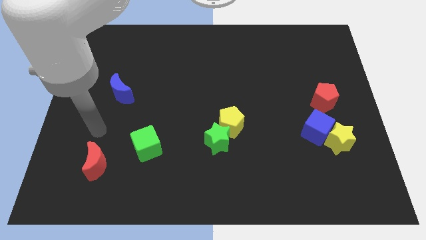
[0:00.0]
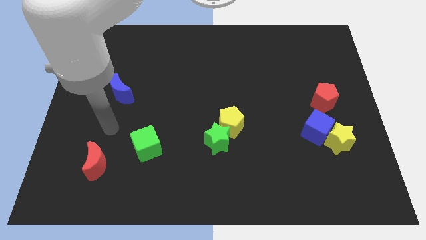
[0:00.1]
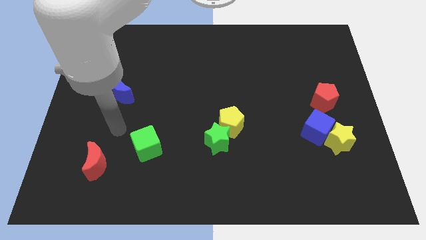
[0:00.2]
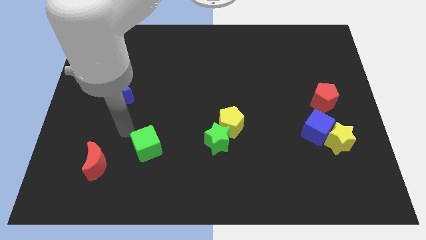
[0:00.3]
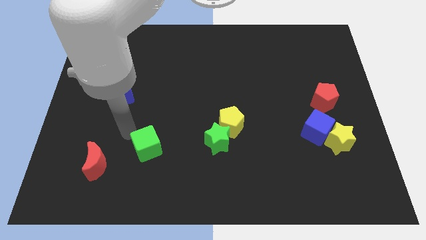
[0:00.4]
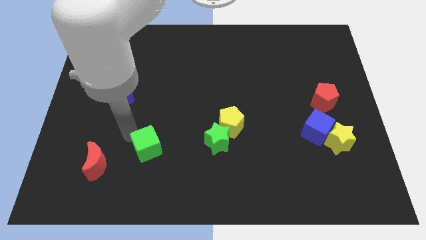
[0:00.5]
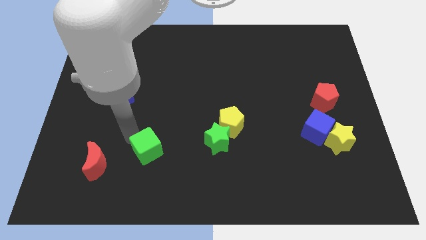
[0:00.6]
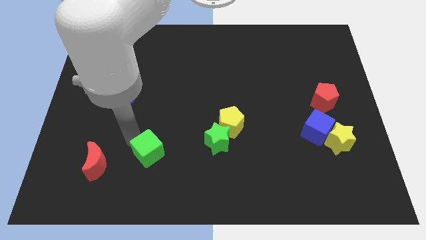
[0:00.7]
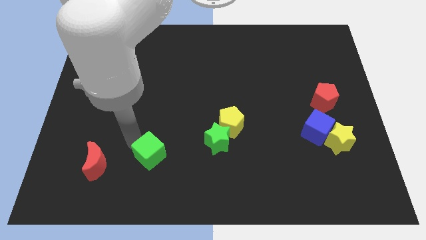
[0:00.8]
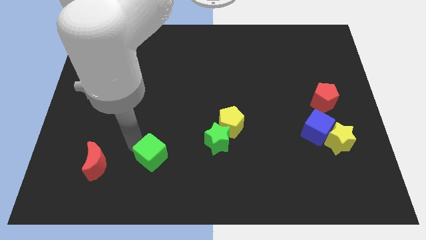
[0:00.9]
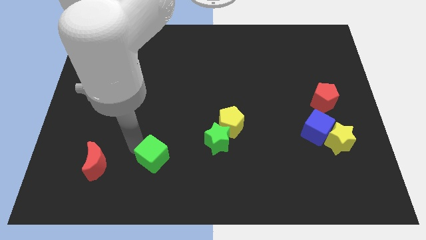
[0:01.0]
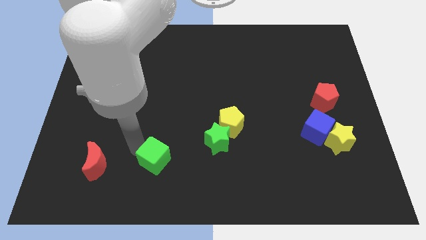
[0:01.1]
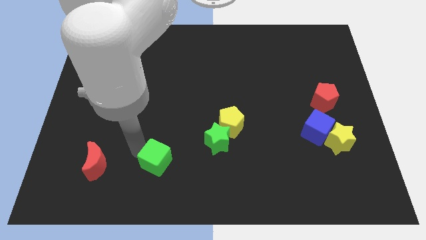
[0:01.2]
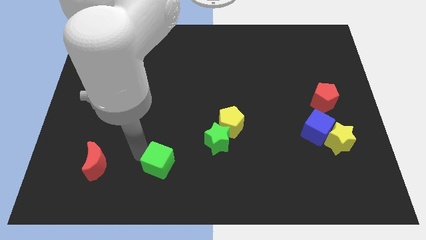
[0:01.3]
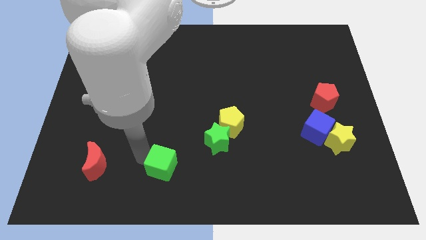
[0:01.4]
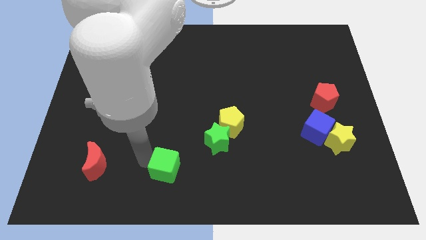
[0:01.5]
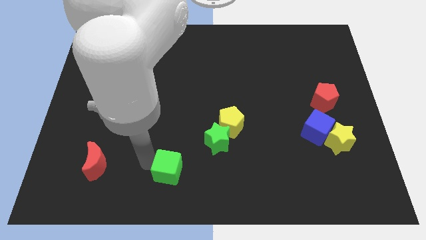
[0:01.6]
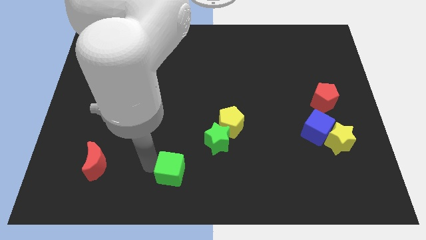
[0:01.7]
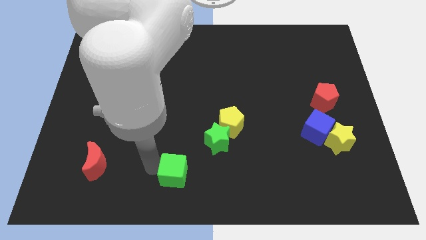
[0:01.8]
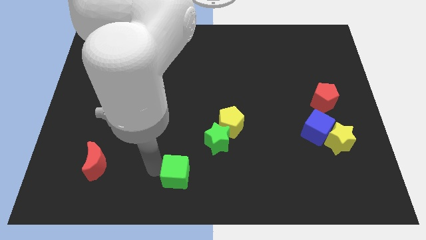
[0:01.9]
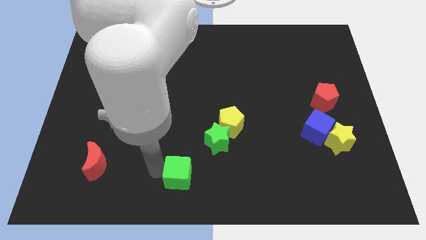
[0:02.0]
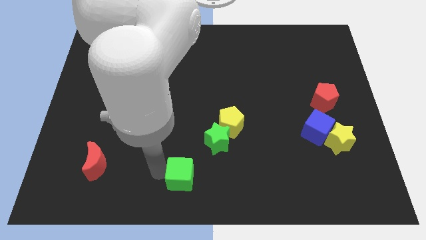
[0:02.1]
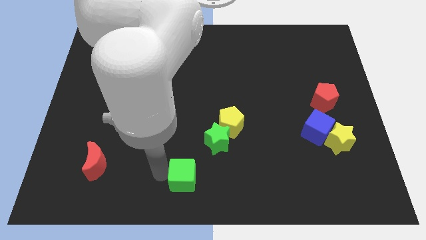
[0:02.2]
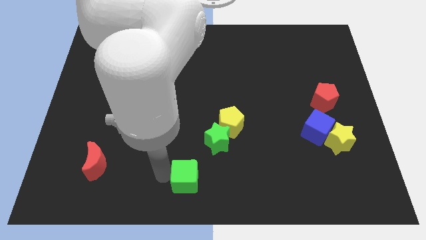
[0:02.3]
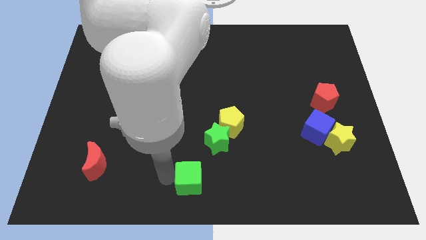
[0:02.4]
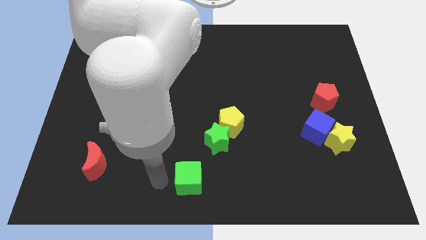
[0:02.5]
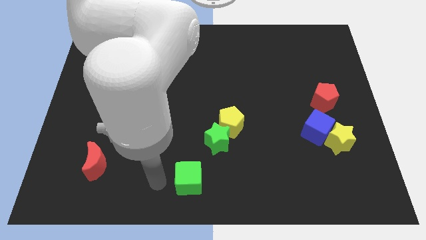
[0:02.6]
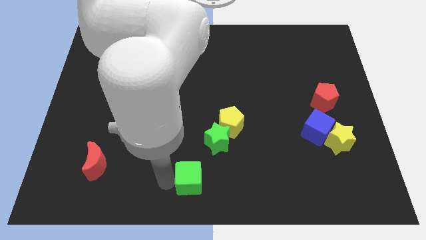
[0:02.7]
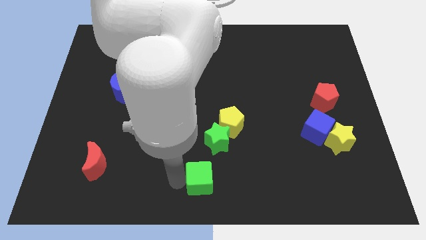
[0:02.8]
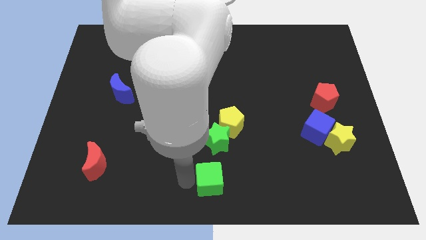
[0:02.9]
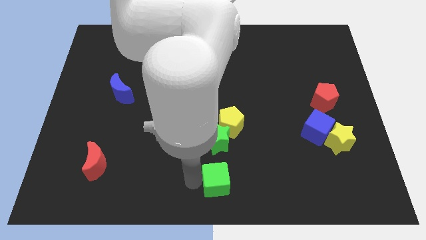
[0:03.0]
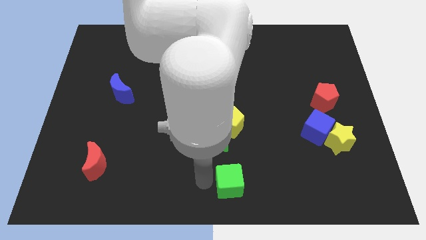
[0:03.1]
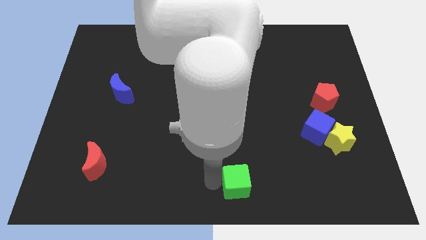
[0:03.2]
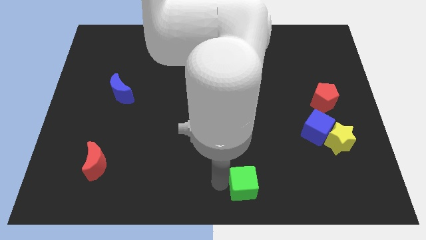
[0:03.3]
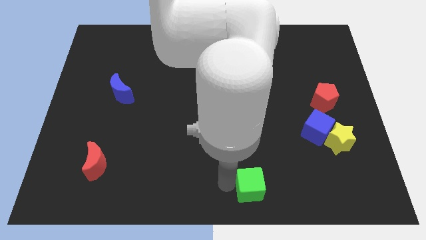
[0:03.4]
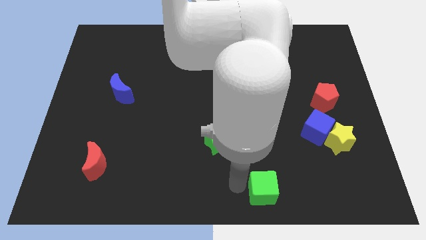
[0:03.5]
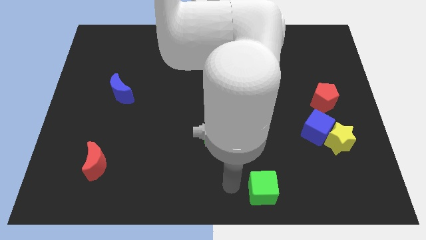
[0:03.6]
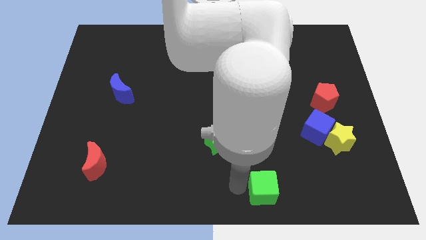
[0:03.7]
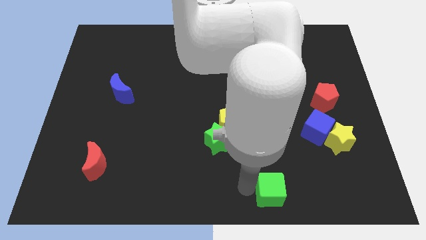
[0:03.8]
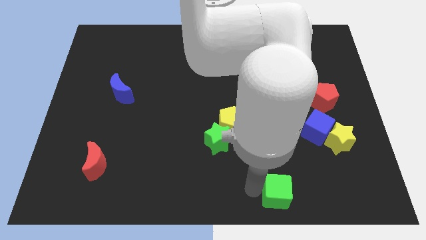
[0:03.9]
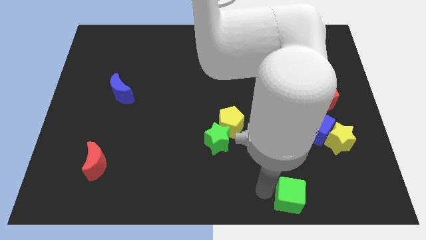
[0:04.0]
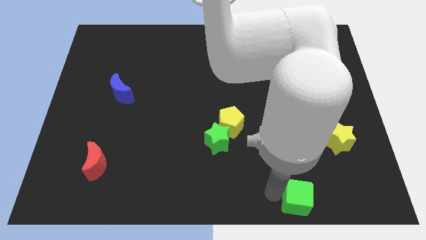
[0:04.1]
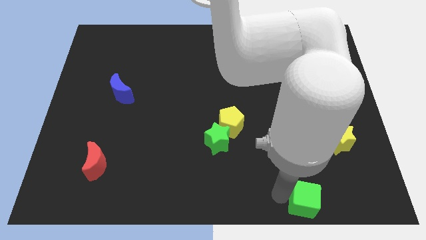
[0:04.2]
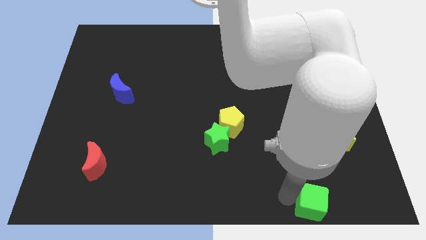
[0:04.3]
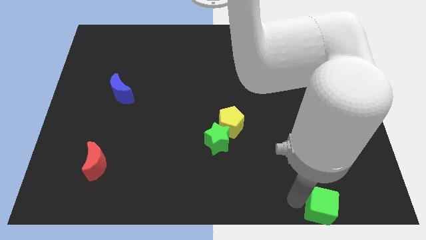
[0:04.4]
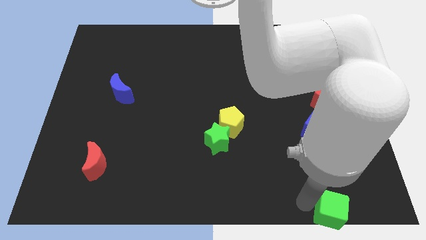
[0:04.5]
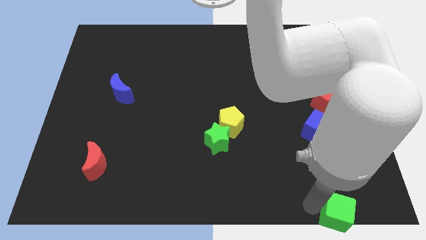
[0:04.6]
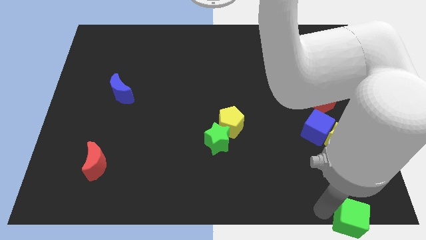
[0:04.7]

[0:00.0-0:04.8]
slide the green cube to the lower right corner

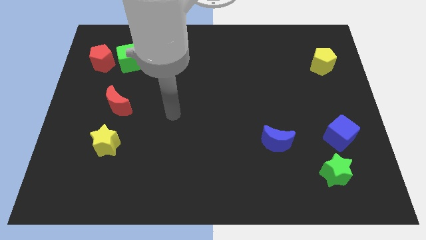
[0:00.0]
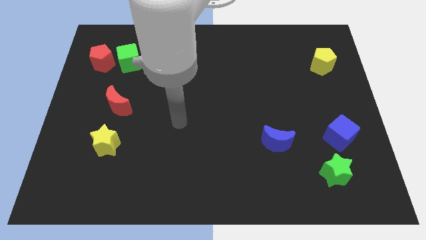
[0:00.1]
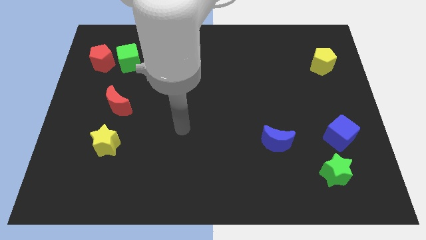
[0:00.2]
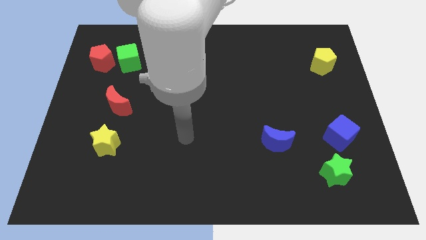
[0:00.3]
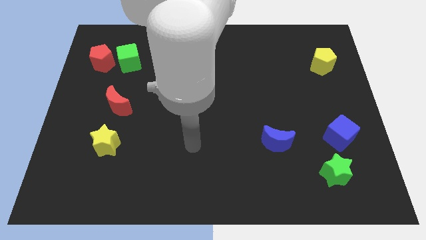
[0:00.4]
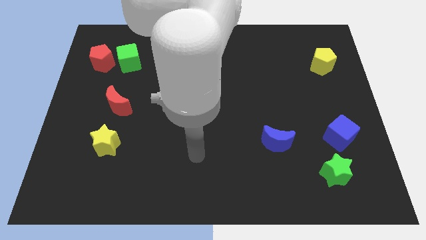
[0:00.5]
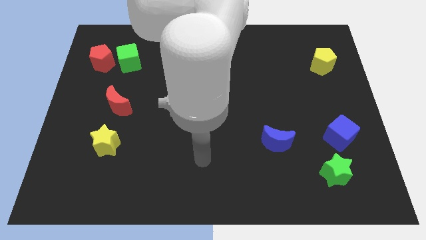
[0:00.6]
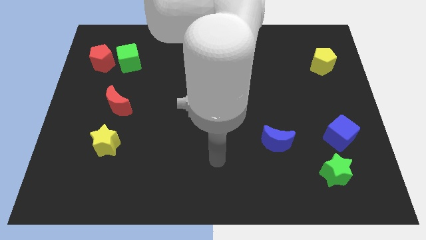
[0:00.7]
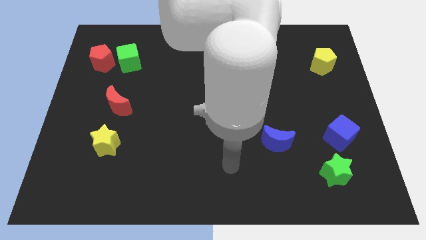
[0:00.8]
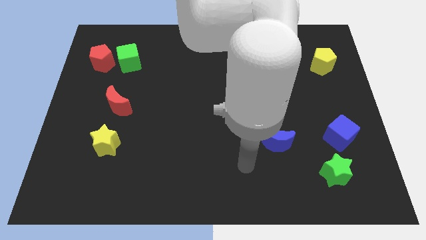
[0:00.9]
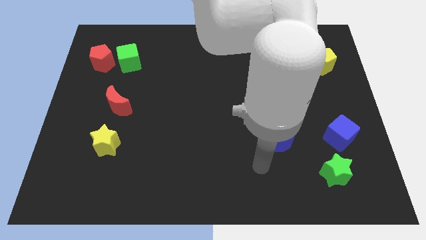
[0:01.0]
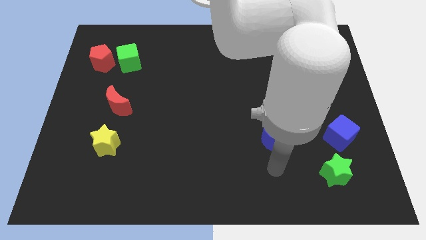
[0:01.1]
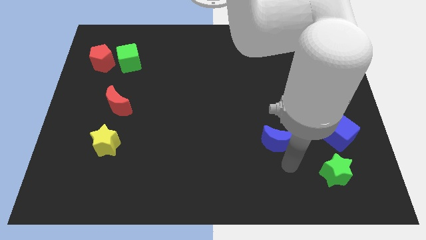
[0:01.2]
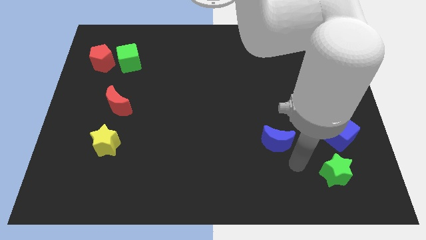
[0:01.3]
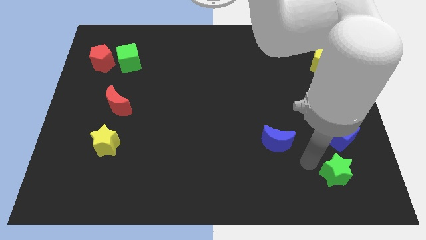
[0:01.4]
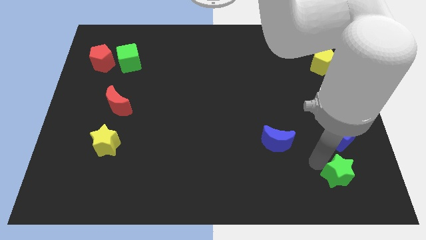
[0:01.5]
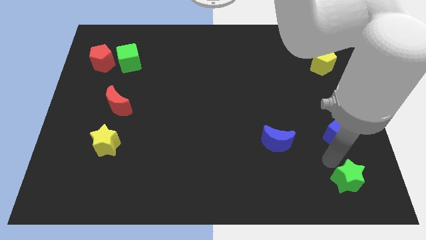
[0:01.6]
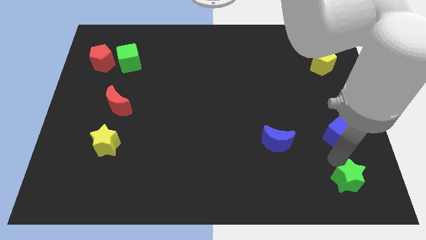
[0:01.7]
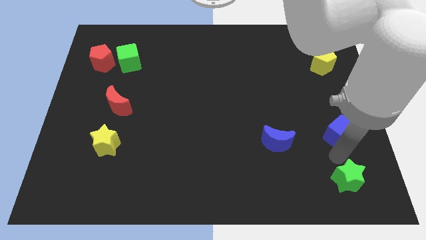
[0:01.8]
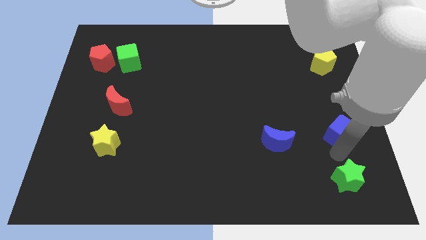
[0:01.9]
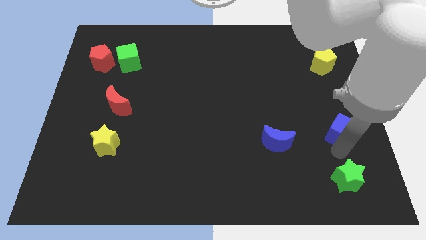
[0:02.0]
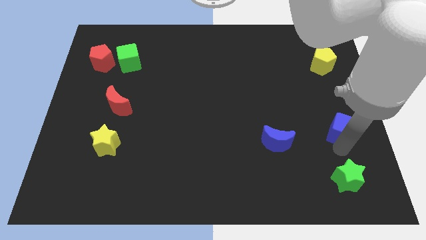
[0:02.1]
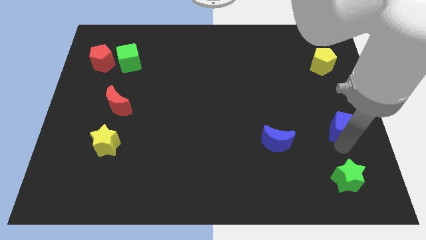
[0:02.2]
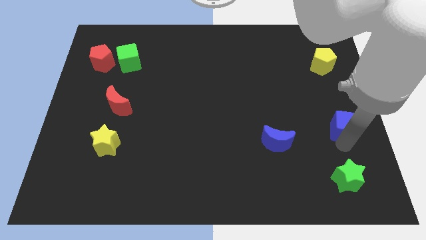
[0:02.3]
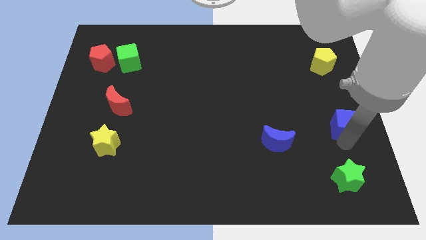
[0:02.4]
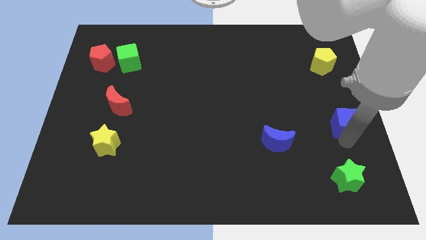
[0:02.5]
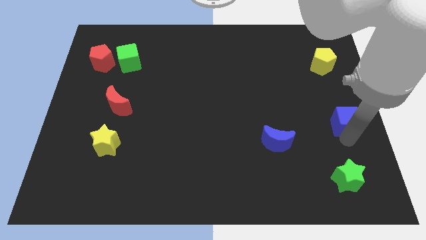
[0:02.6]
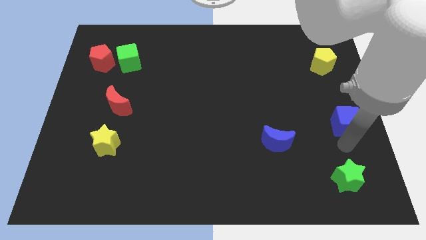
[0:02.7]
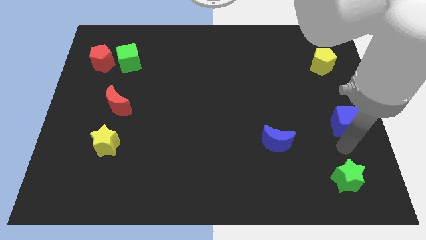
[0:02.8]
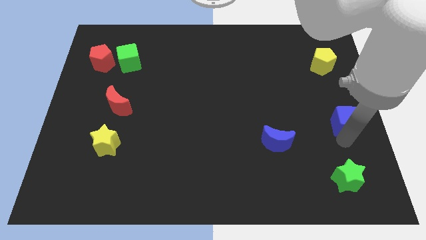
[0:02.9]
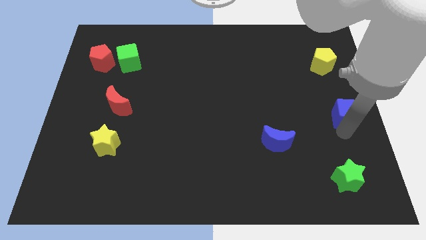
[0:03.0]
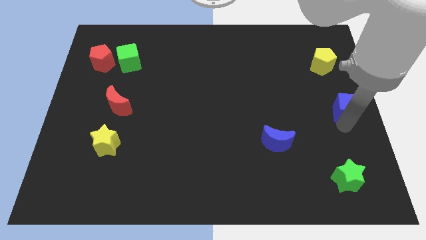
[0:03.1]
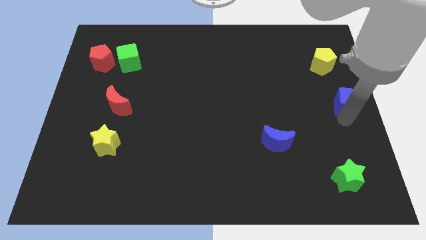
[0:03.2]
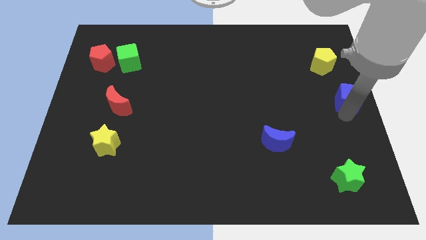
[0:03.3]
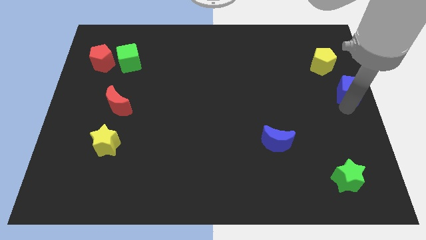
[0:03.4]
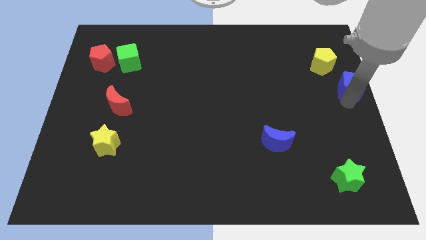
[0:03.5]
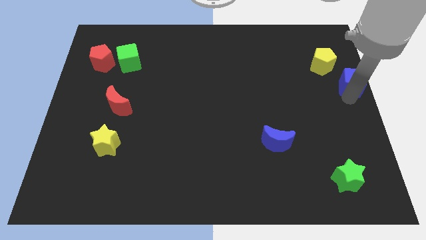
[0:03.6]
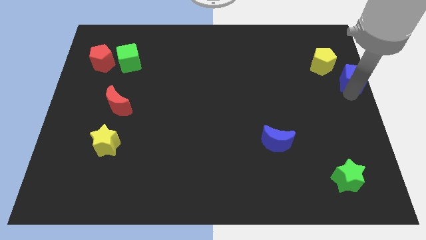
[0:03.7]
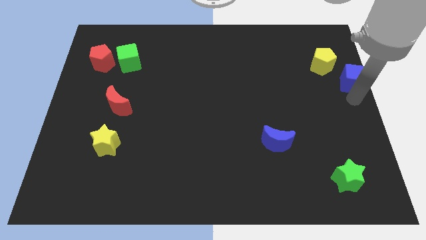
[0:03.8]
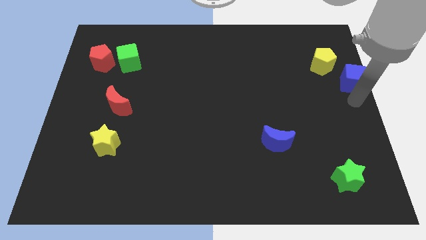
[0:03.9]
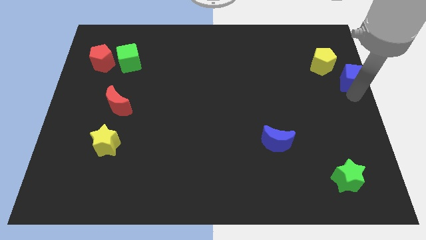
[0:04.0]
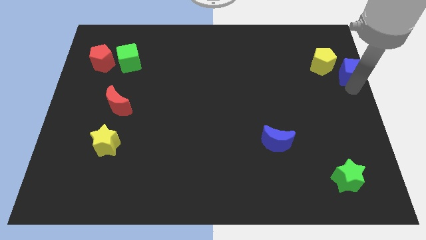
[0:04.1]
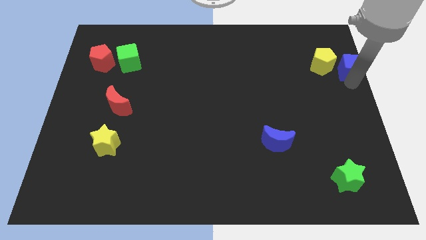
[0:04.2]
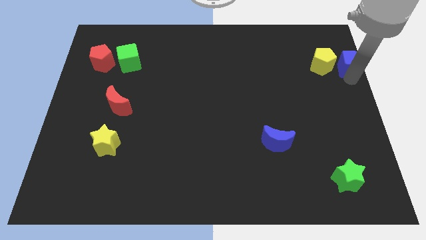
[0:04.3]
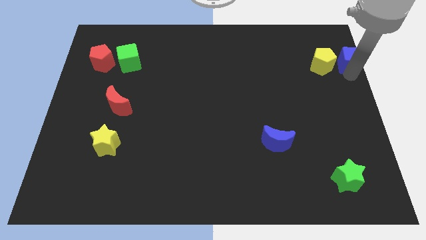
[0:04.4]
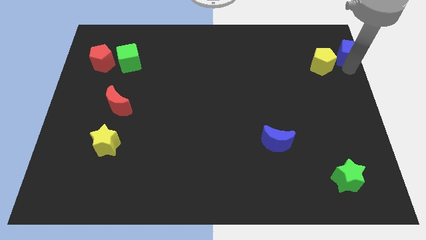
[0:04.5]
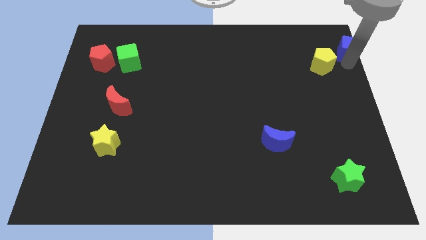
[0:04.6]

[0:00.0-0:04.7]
put the blue cube to the top right corner
